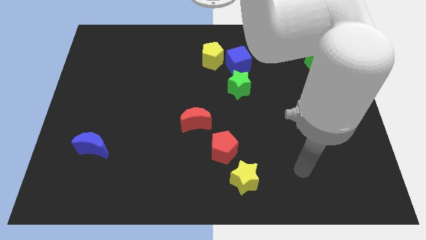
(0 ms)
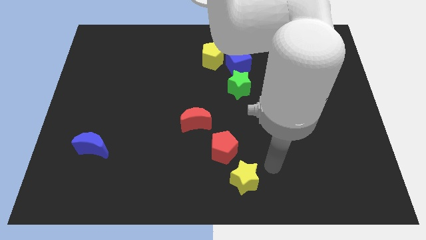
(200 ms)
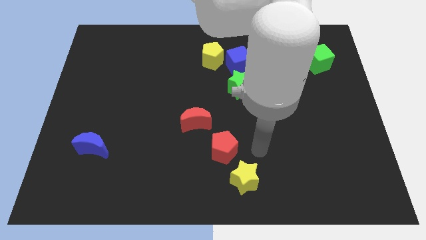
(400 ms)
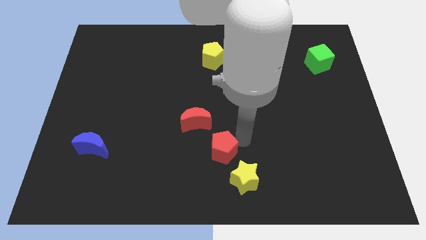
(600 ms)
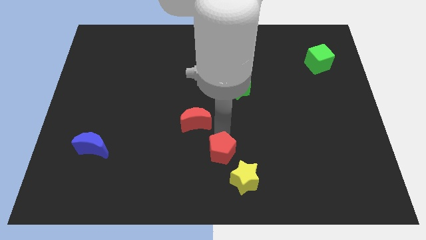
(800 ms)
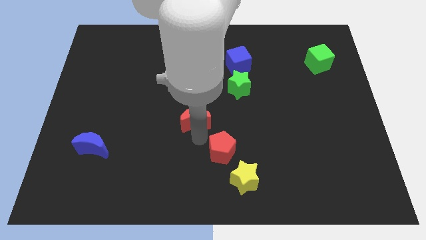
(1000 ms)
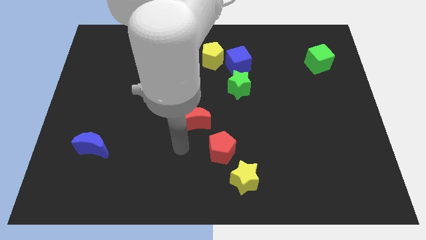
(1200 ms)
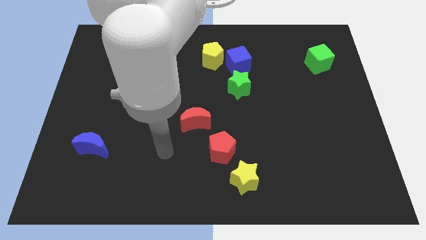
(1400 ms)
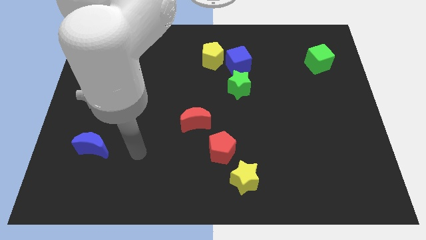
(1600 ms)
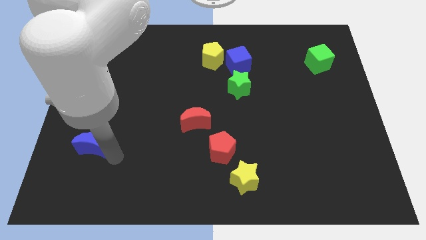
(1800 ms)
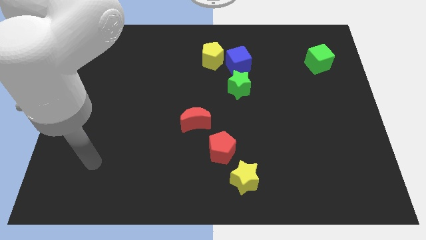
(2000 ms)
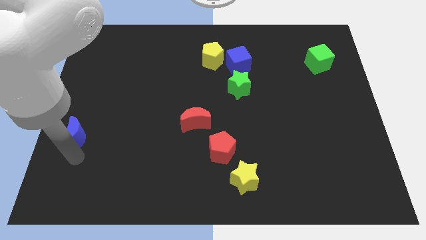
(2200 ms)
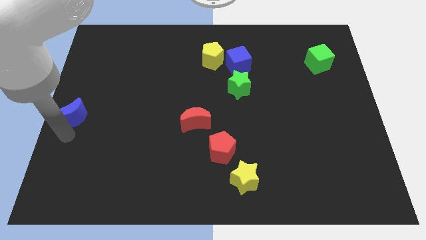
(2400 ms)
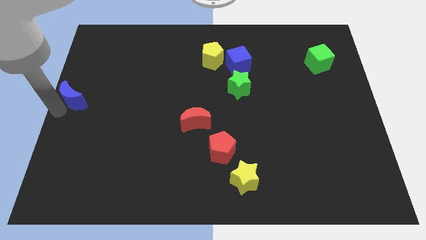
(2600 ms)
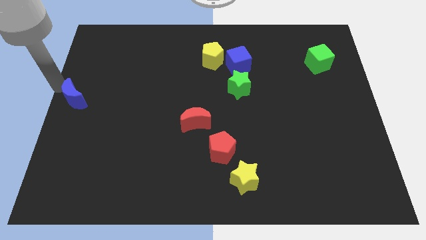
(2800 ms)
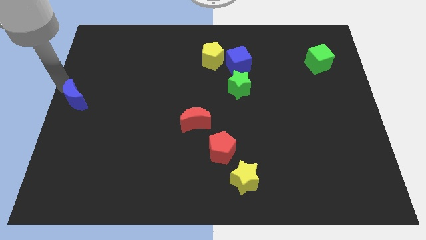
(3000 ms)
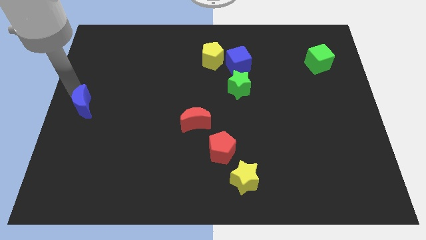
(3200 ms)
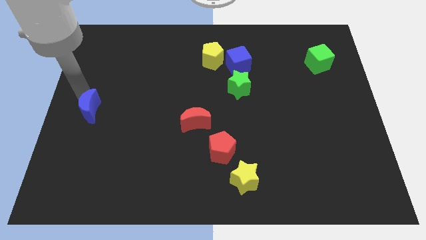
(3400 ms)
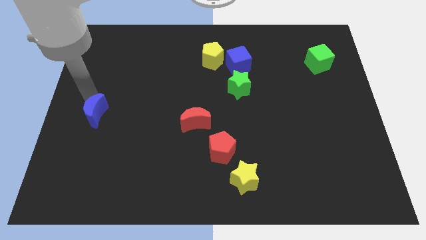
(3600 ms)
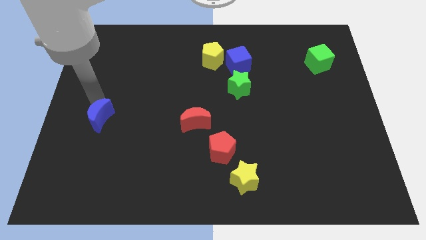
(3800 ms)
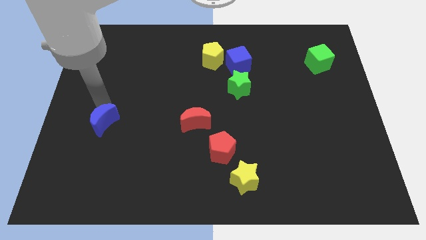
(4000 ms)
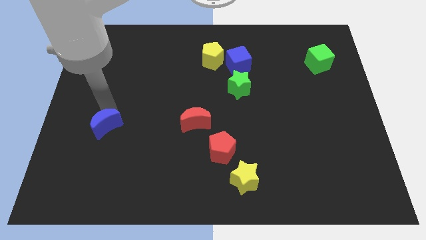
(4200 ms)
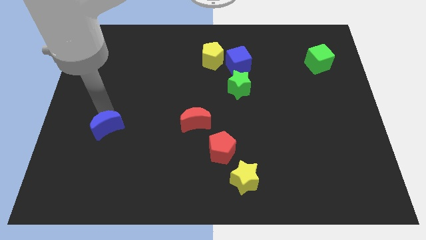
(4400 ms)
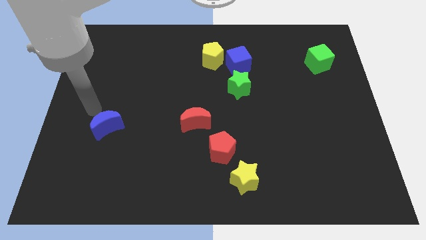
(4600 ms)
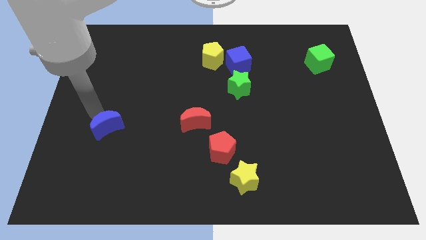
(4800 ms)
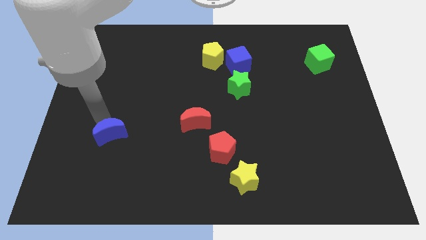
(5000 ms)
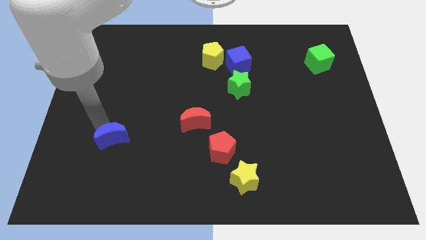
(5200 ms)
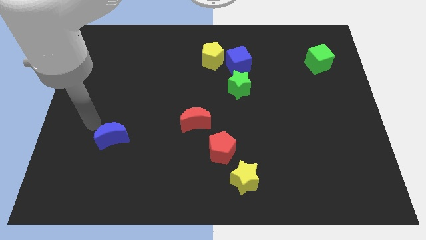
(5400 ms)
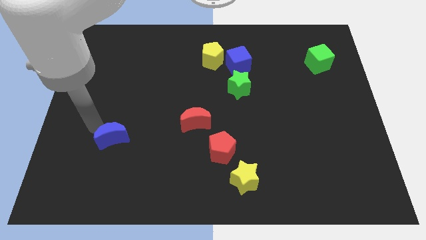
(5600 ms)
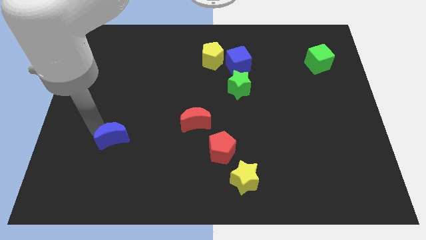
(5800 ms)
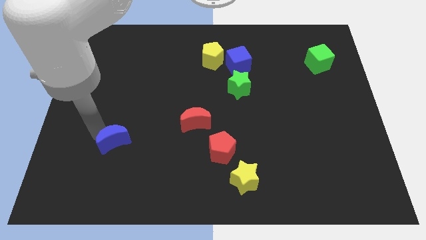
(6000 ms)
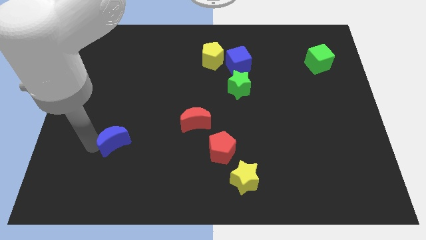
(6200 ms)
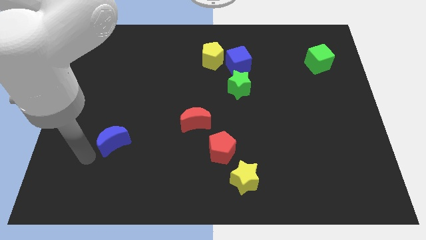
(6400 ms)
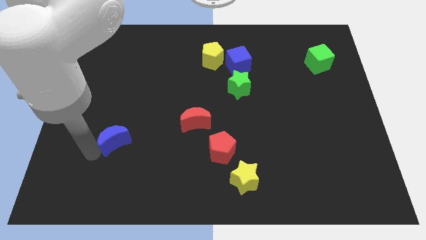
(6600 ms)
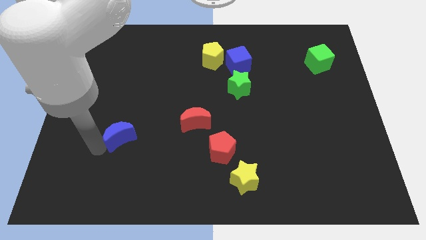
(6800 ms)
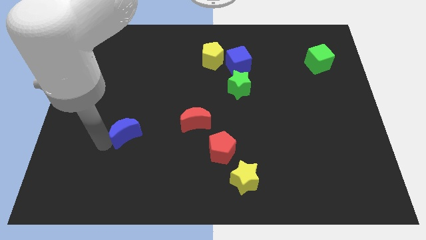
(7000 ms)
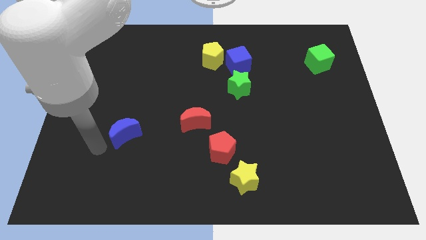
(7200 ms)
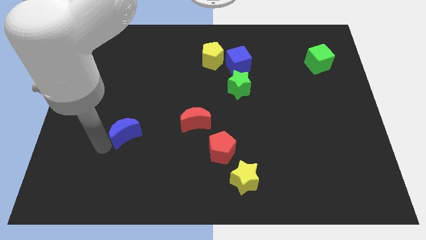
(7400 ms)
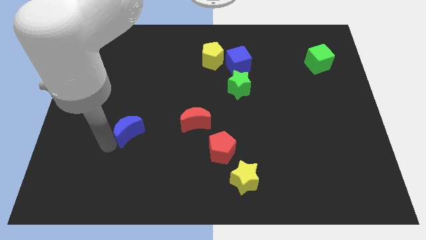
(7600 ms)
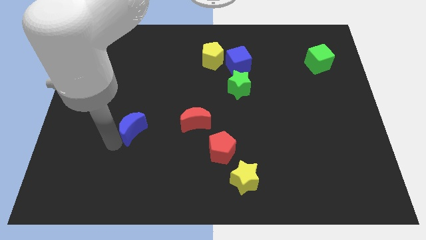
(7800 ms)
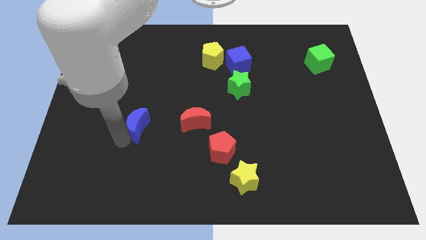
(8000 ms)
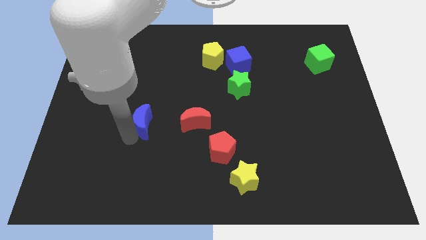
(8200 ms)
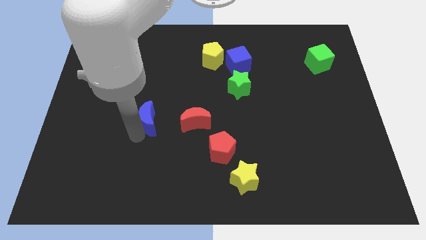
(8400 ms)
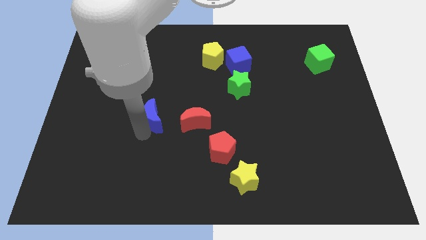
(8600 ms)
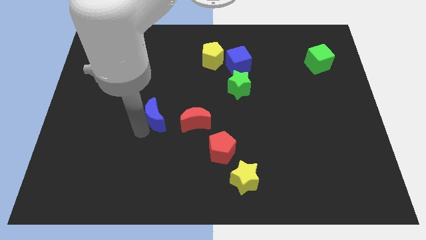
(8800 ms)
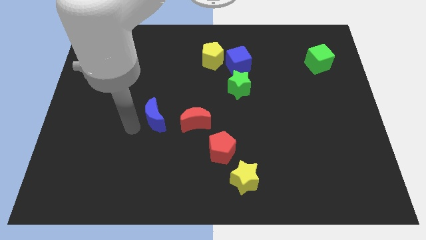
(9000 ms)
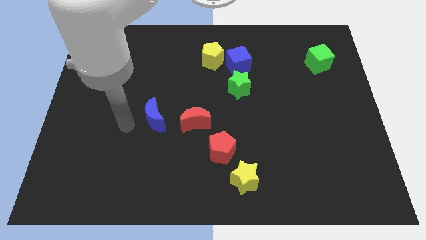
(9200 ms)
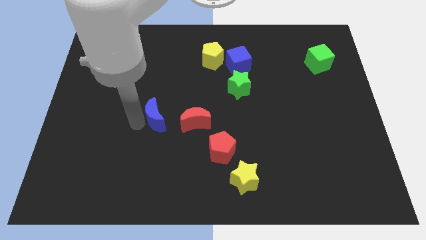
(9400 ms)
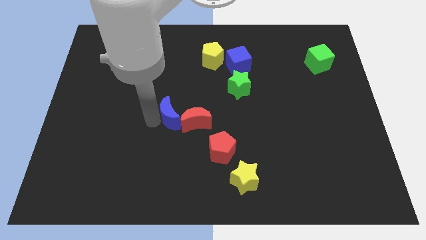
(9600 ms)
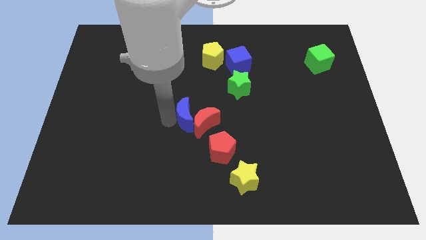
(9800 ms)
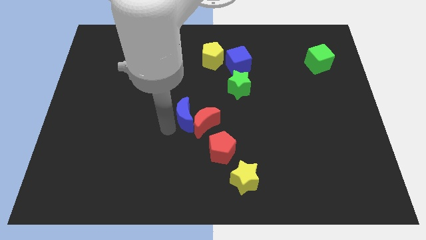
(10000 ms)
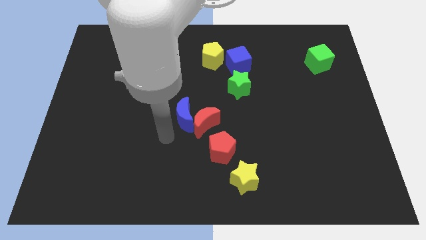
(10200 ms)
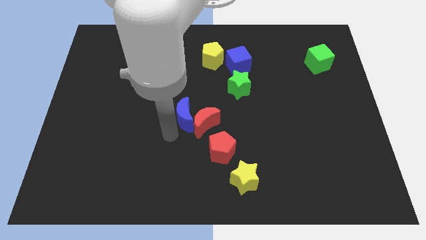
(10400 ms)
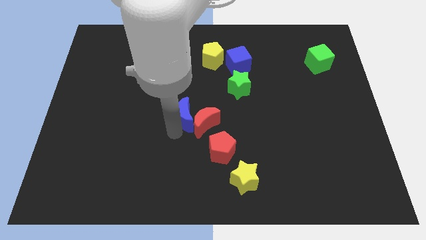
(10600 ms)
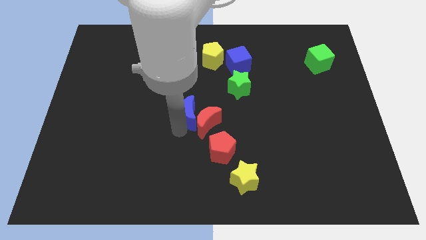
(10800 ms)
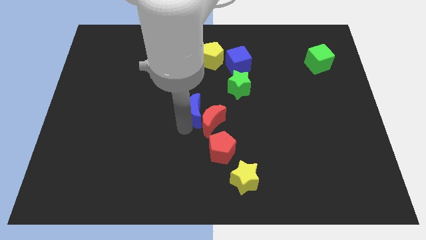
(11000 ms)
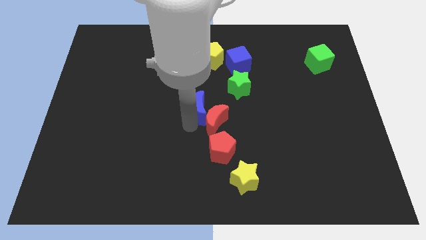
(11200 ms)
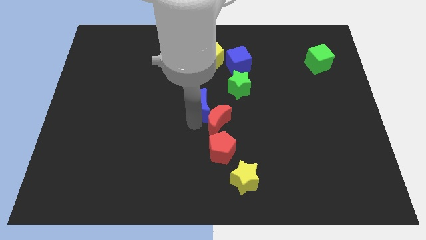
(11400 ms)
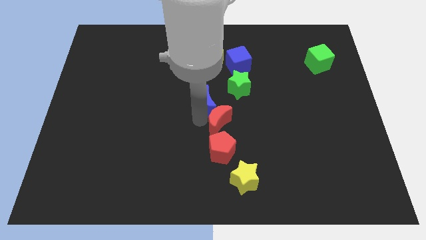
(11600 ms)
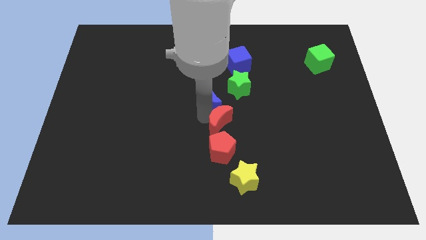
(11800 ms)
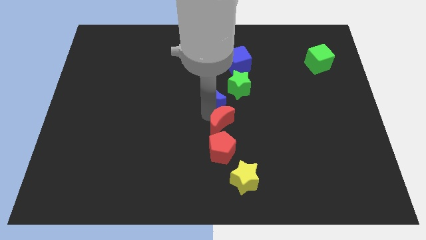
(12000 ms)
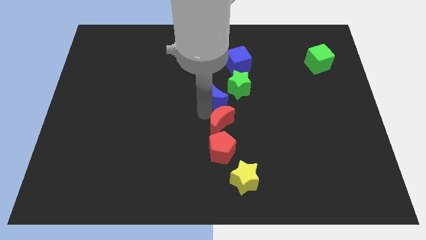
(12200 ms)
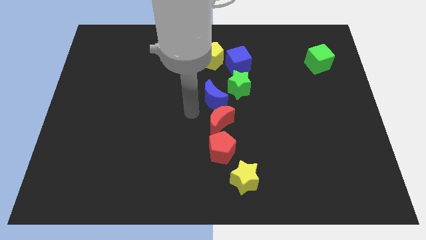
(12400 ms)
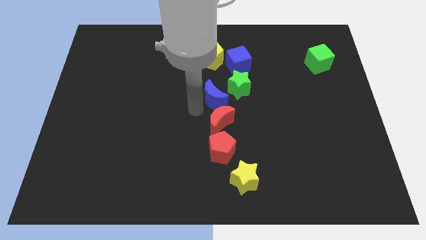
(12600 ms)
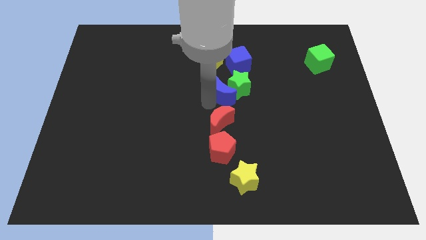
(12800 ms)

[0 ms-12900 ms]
push the blue moon towards the green star

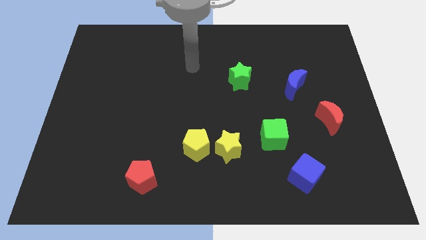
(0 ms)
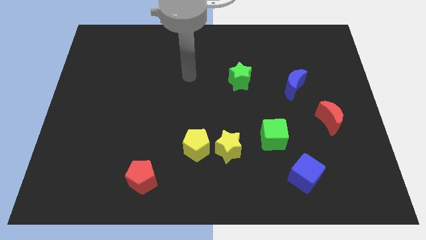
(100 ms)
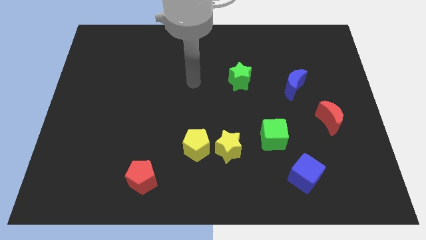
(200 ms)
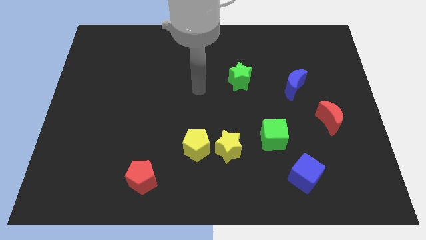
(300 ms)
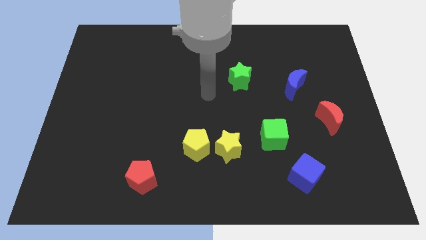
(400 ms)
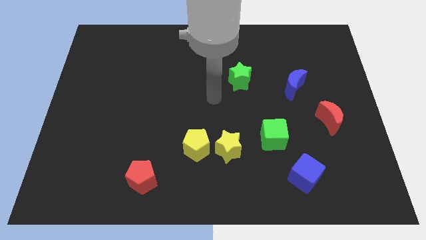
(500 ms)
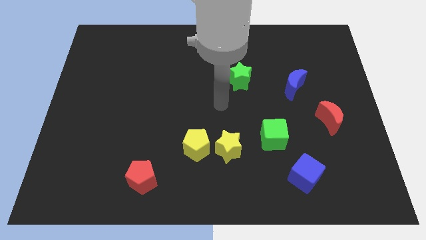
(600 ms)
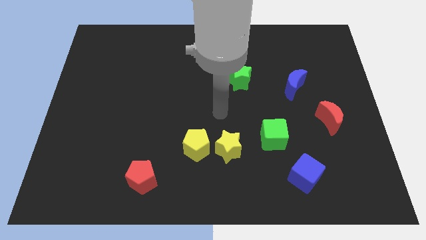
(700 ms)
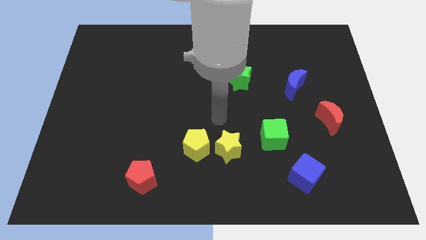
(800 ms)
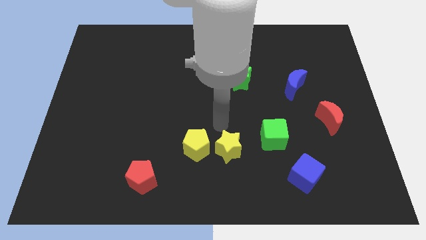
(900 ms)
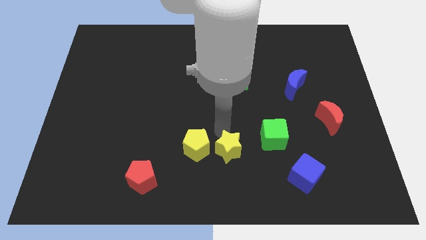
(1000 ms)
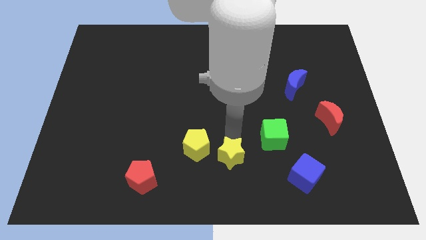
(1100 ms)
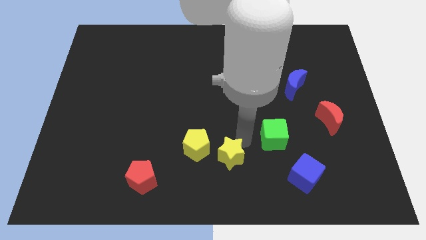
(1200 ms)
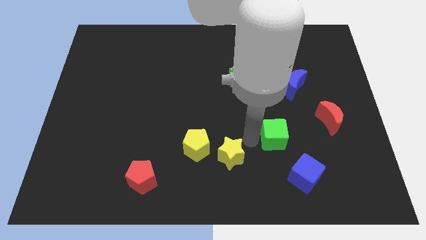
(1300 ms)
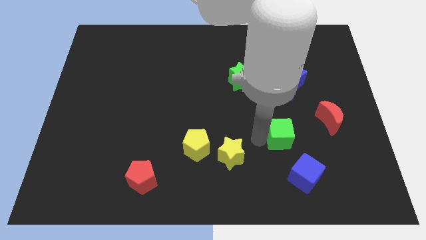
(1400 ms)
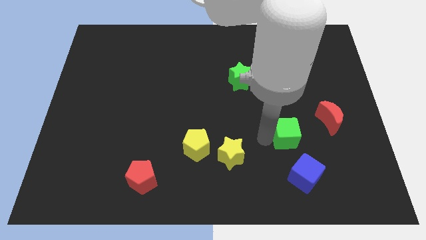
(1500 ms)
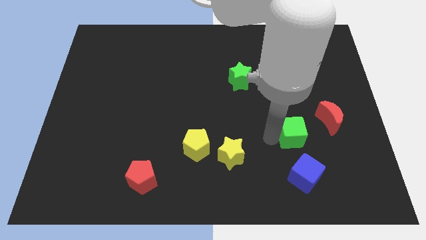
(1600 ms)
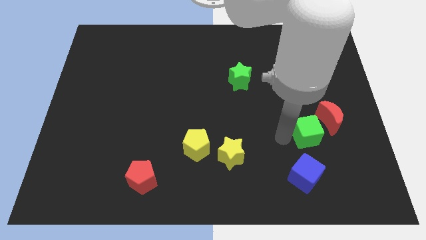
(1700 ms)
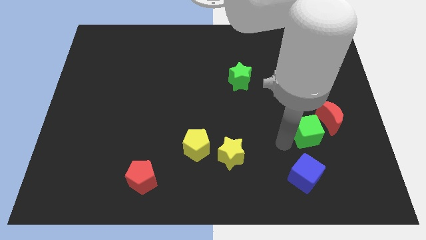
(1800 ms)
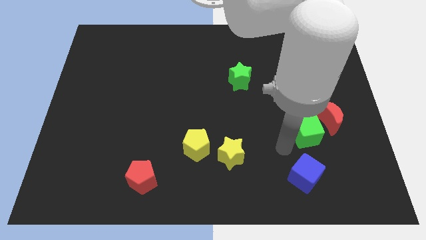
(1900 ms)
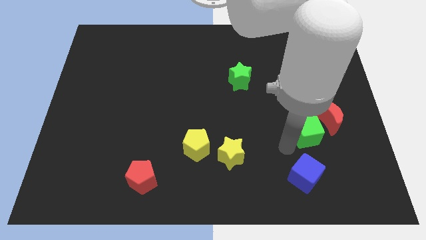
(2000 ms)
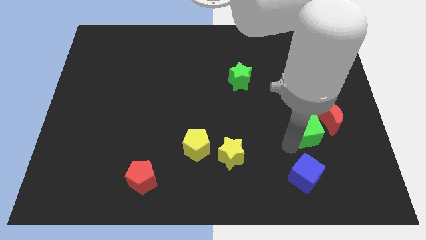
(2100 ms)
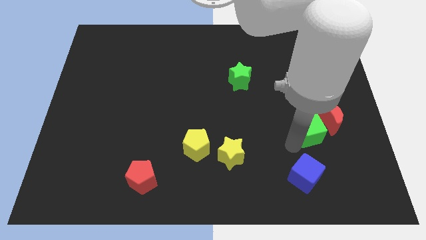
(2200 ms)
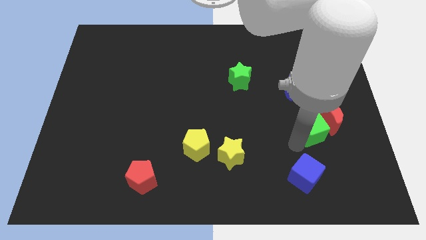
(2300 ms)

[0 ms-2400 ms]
push the green cube next to the red moon
